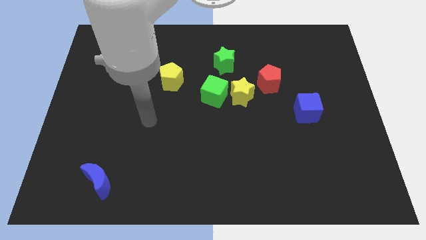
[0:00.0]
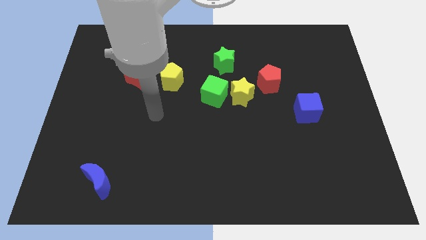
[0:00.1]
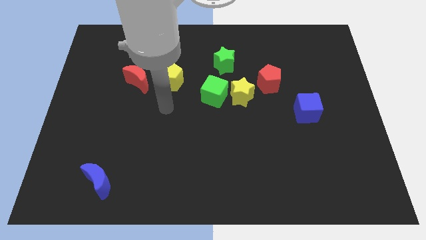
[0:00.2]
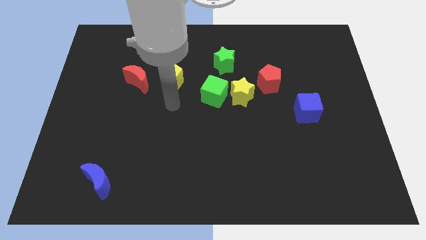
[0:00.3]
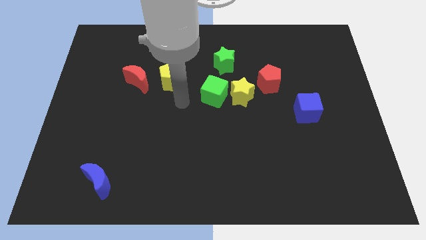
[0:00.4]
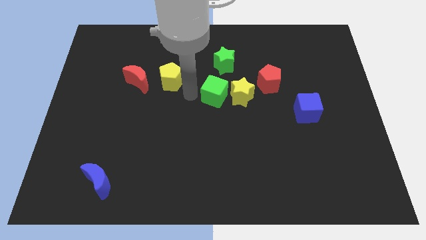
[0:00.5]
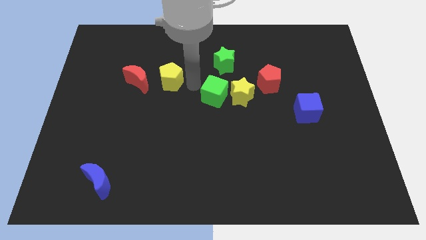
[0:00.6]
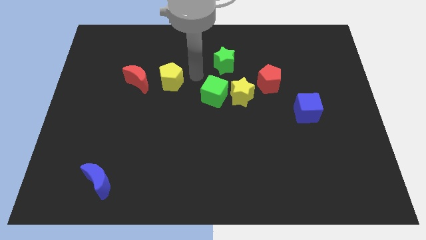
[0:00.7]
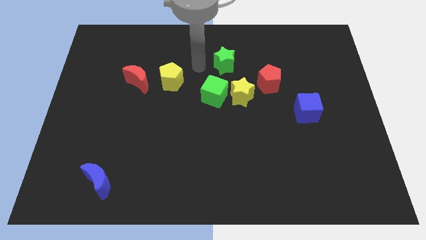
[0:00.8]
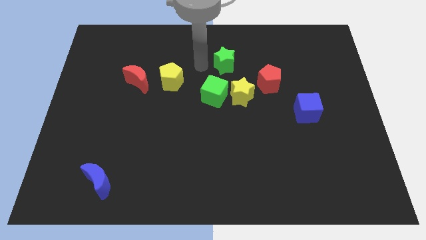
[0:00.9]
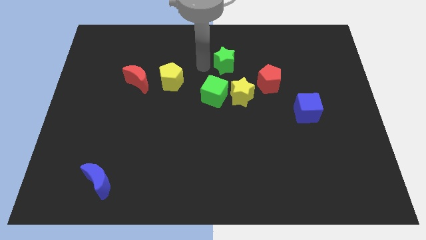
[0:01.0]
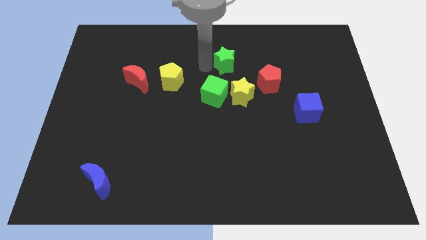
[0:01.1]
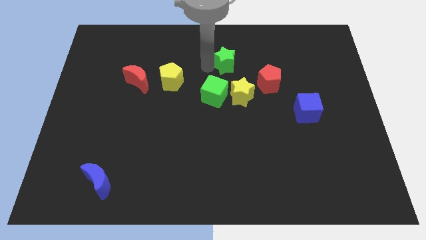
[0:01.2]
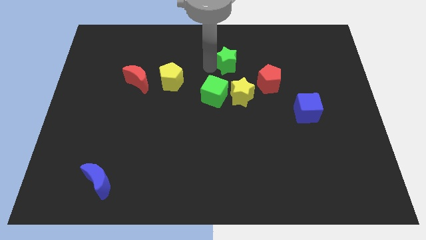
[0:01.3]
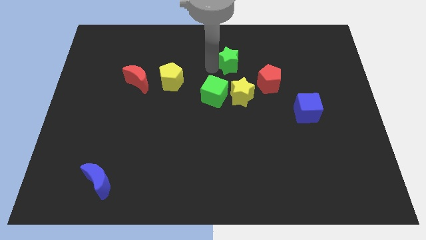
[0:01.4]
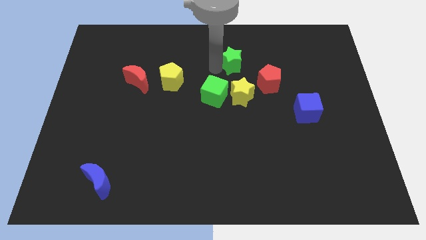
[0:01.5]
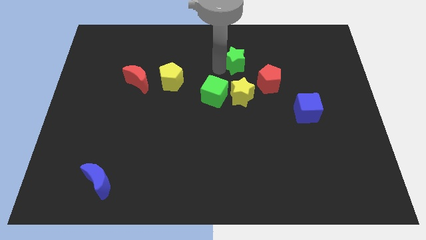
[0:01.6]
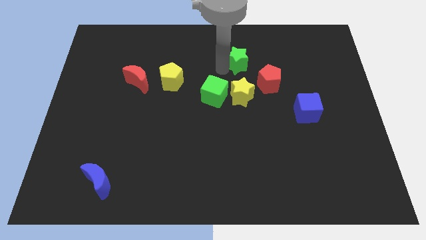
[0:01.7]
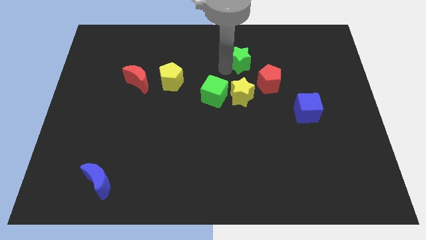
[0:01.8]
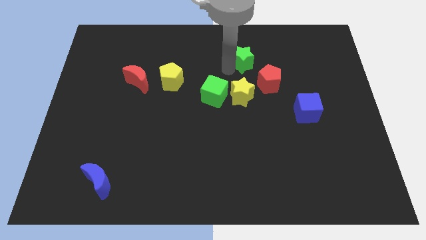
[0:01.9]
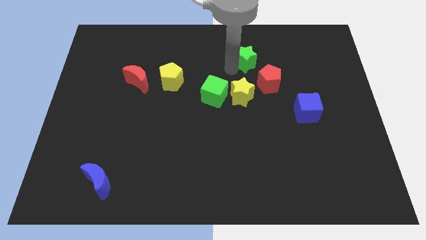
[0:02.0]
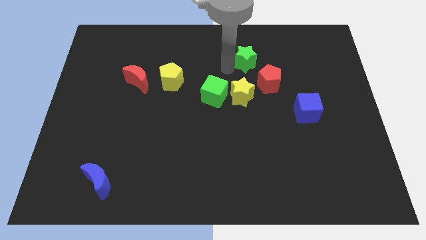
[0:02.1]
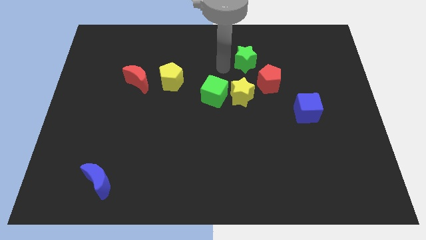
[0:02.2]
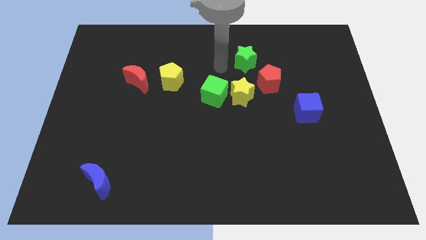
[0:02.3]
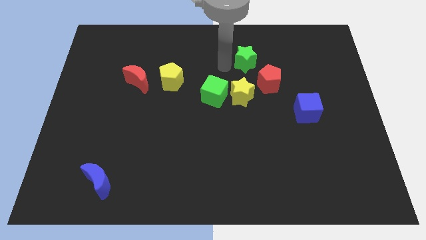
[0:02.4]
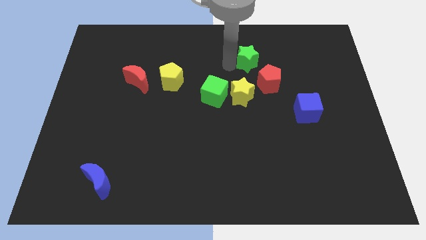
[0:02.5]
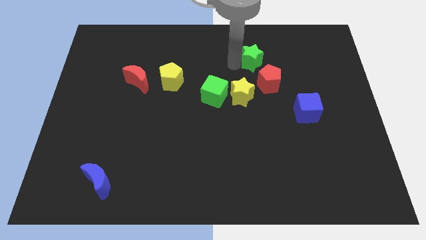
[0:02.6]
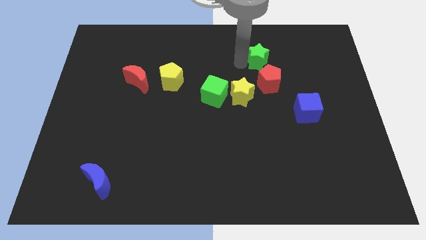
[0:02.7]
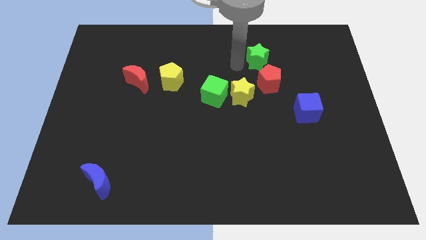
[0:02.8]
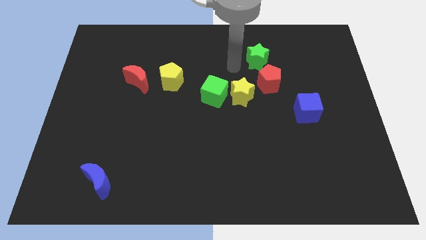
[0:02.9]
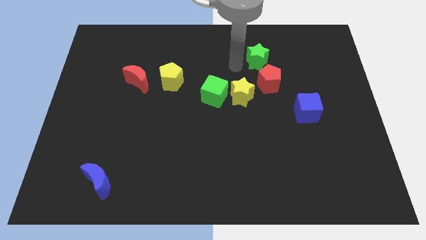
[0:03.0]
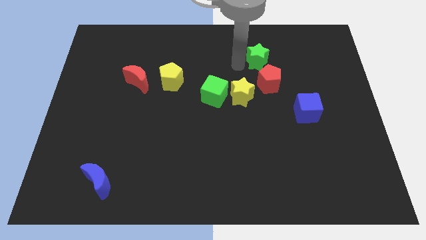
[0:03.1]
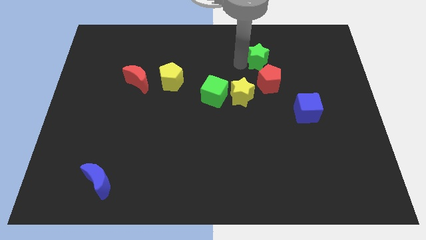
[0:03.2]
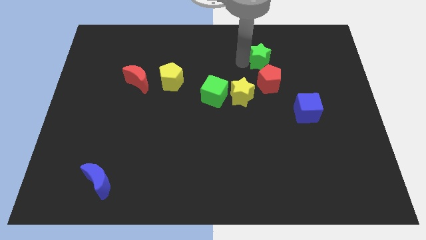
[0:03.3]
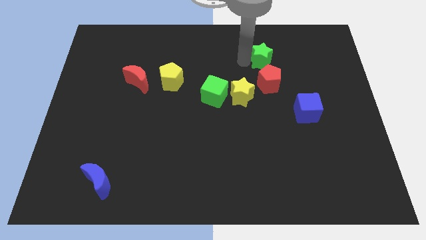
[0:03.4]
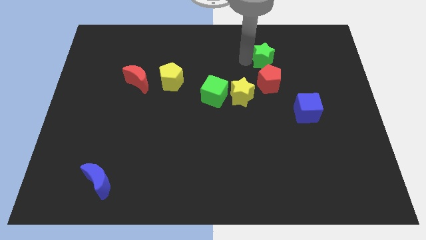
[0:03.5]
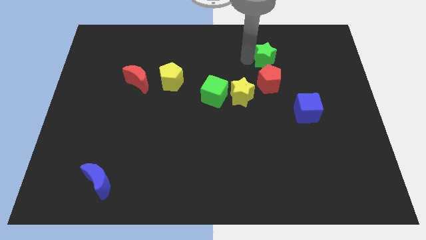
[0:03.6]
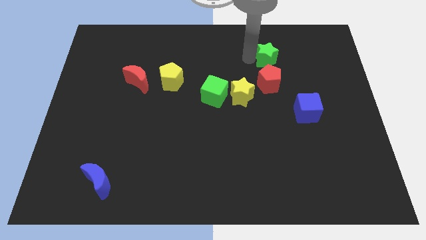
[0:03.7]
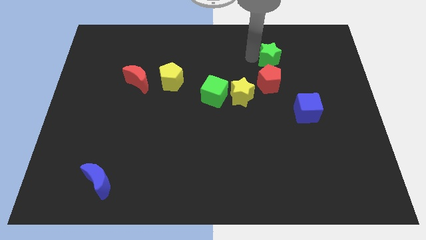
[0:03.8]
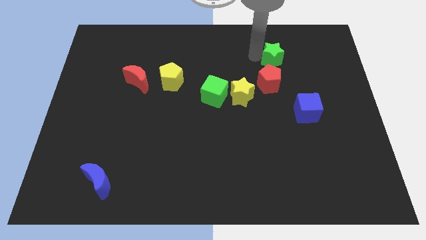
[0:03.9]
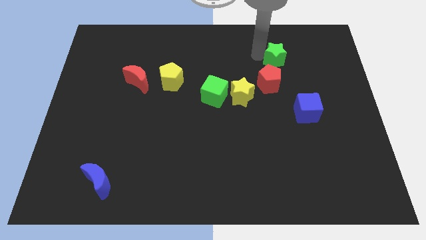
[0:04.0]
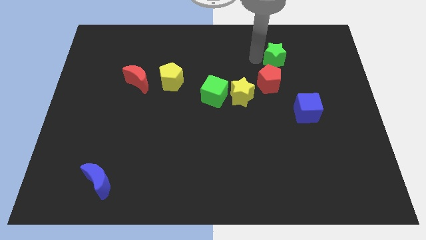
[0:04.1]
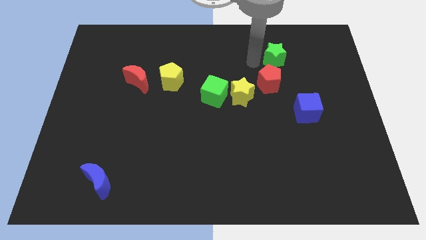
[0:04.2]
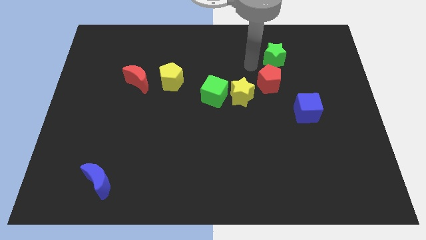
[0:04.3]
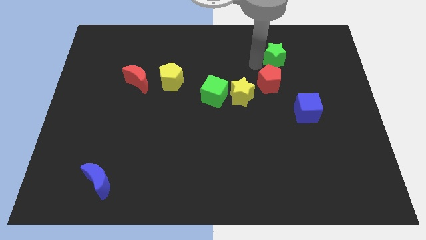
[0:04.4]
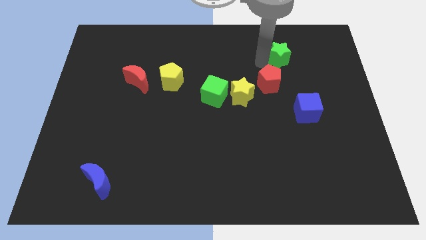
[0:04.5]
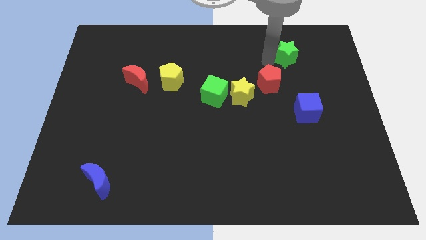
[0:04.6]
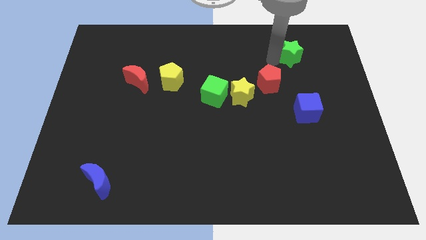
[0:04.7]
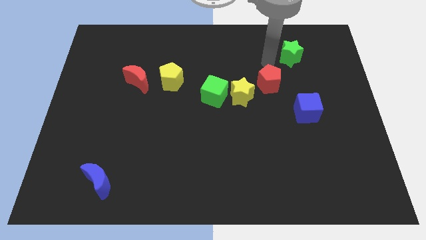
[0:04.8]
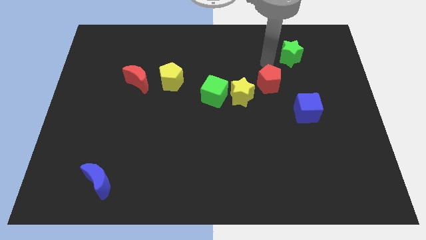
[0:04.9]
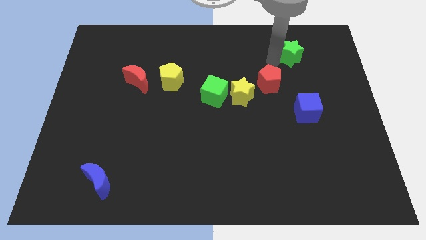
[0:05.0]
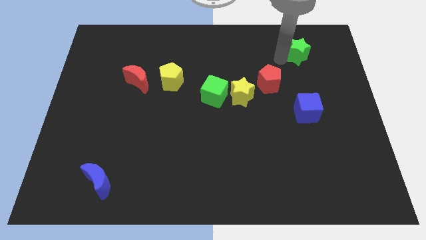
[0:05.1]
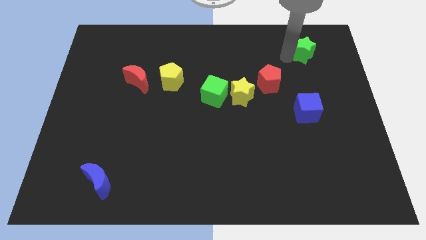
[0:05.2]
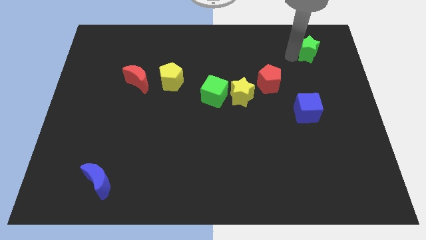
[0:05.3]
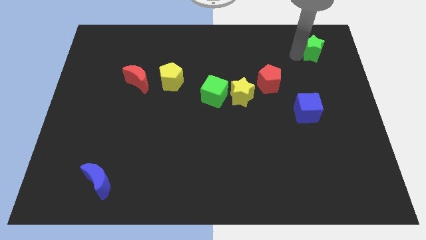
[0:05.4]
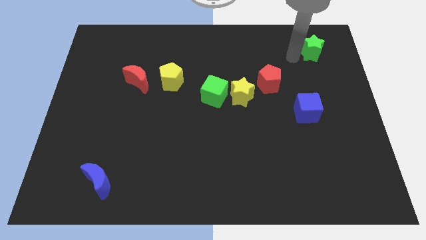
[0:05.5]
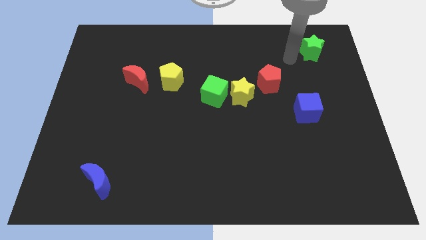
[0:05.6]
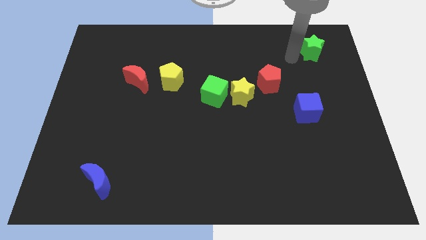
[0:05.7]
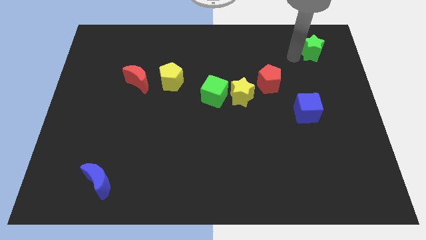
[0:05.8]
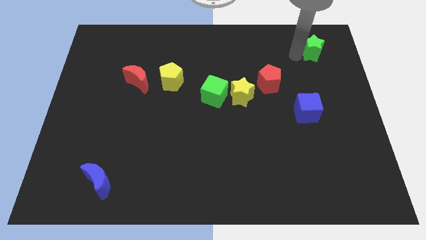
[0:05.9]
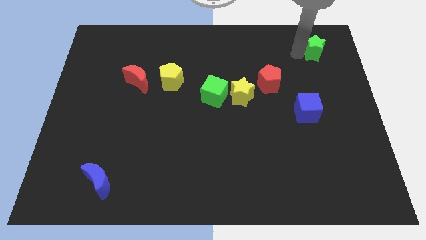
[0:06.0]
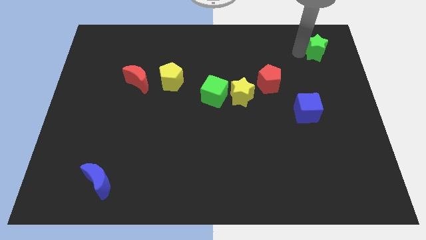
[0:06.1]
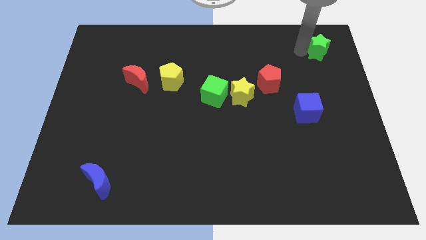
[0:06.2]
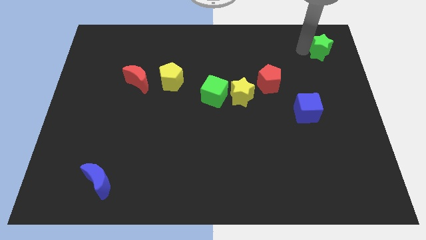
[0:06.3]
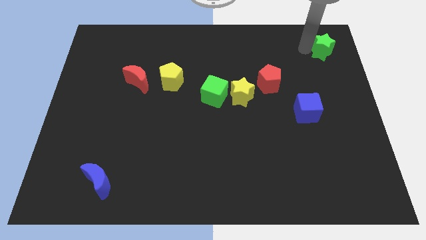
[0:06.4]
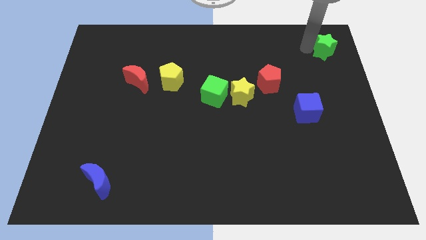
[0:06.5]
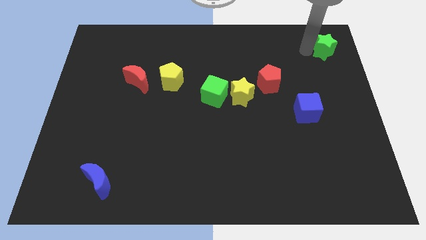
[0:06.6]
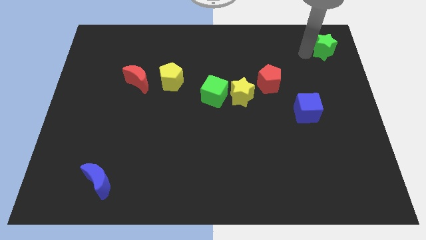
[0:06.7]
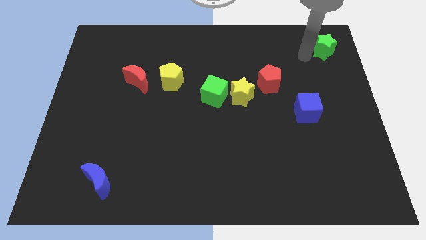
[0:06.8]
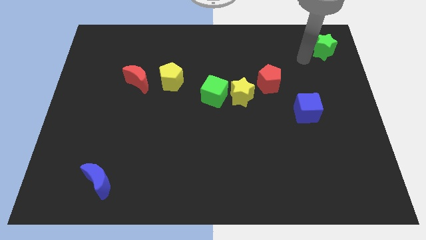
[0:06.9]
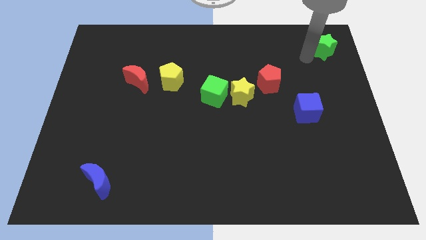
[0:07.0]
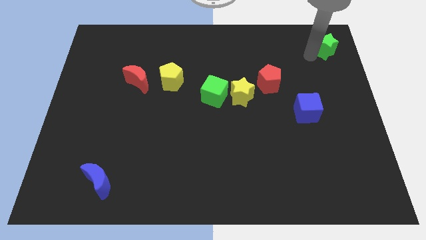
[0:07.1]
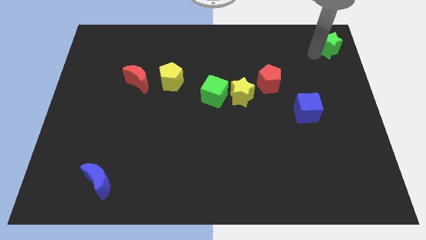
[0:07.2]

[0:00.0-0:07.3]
slide the green star to the top right of the board
